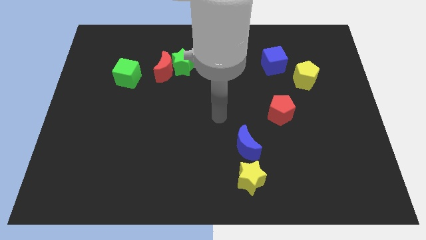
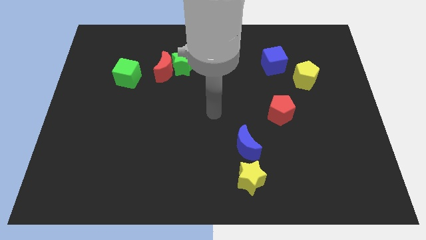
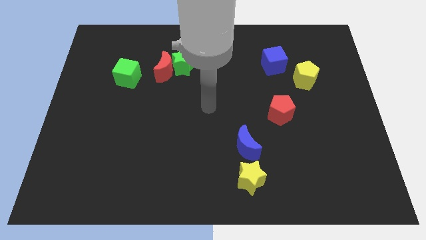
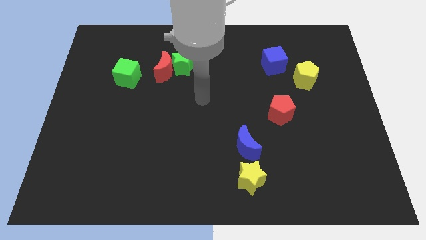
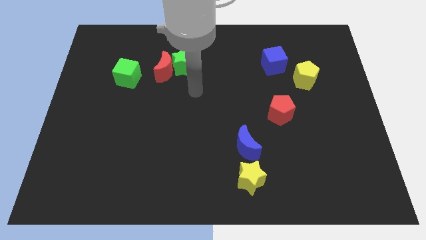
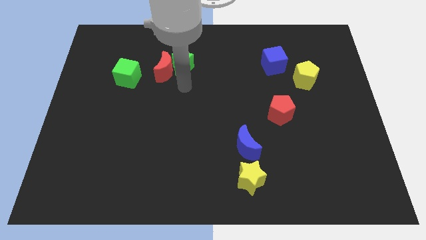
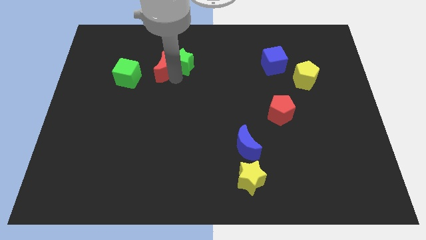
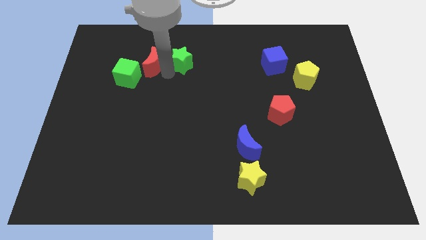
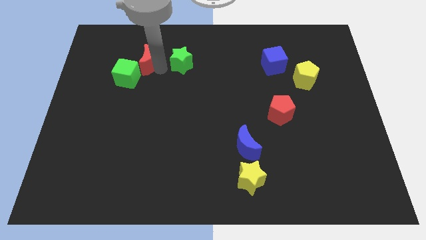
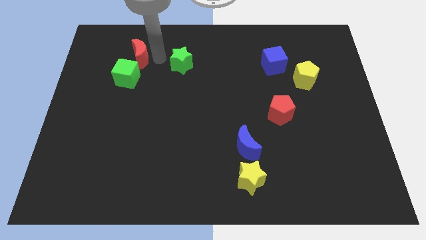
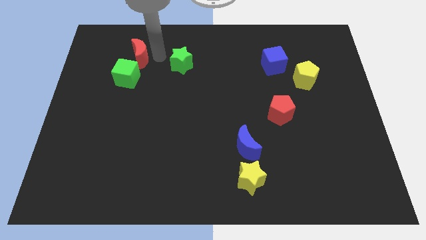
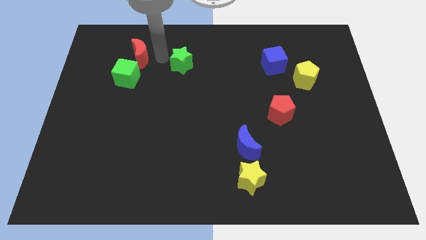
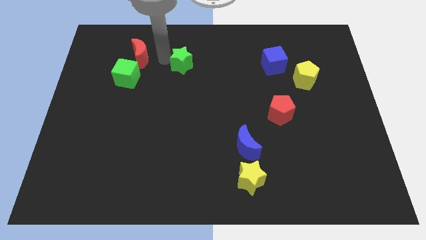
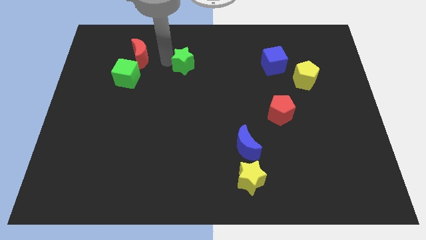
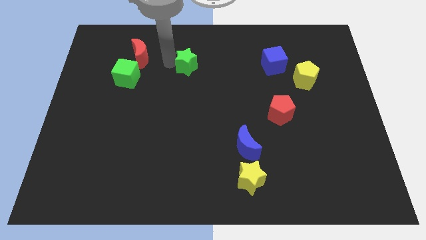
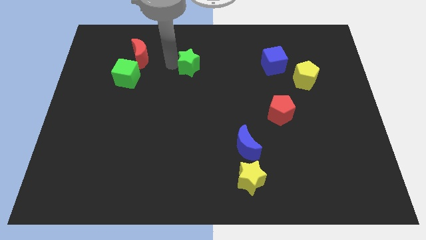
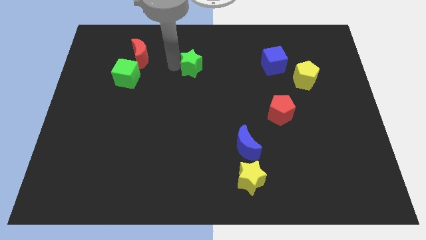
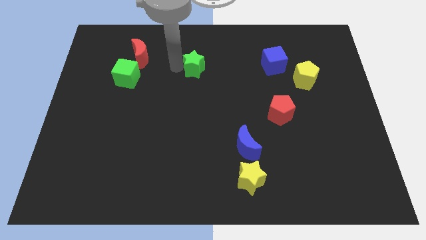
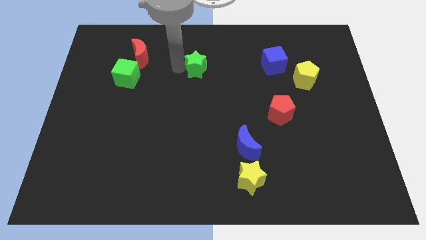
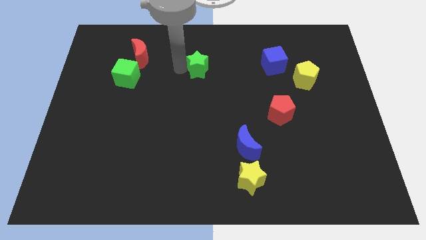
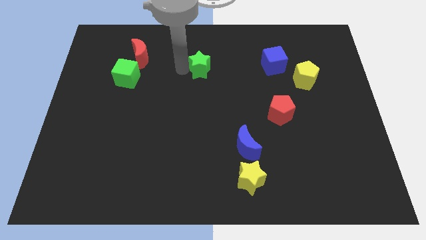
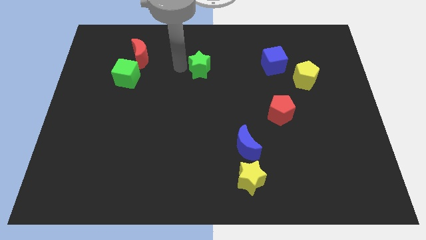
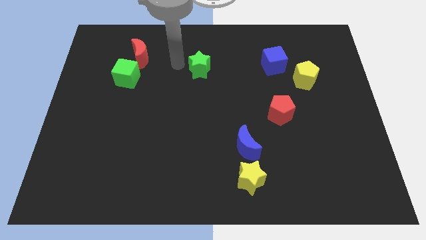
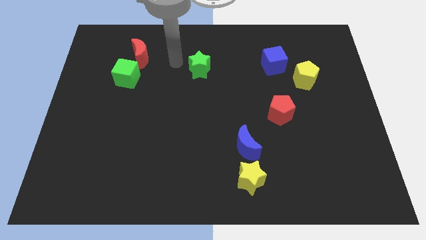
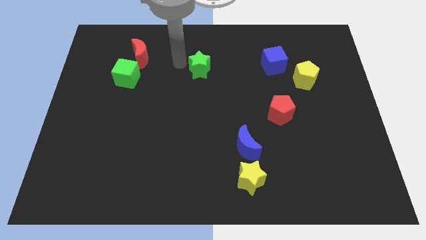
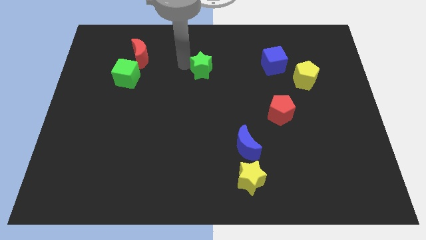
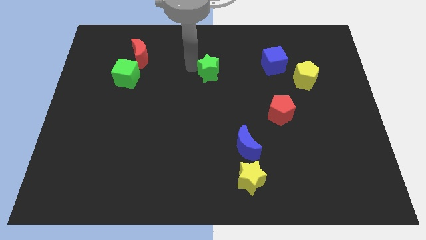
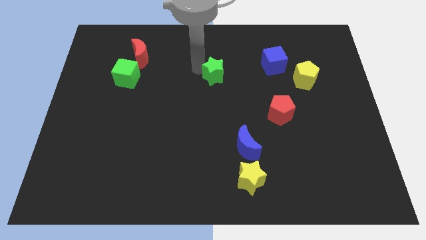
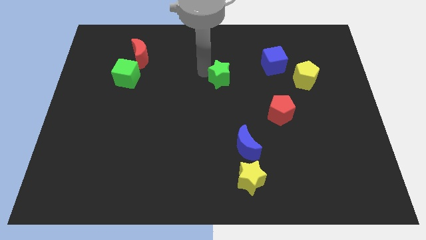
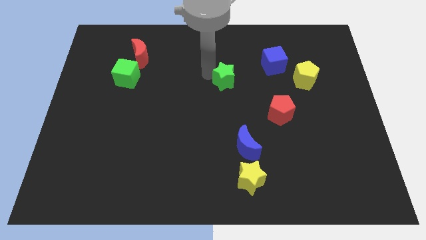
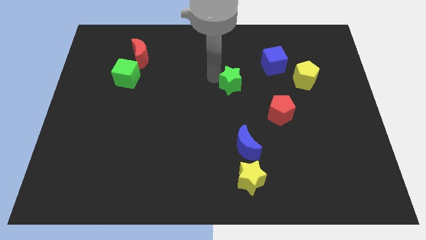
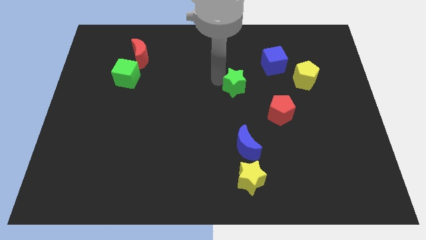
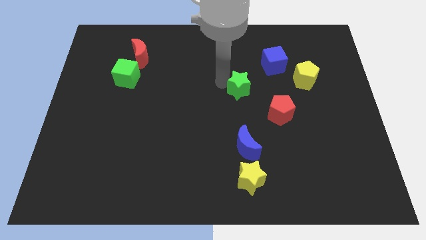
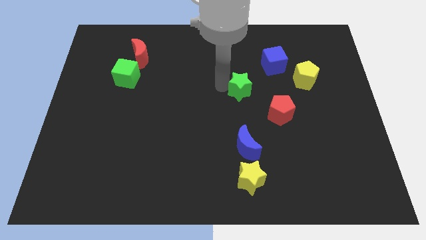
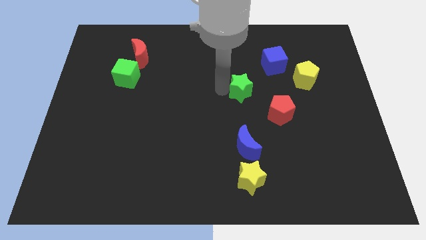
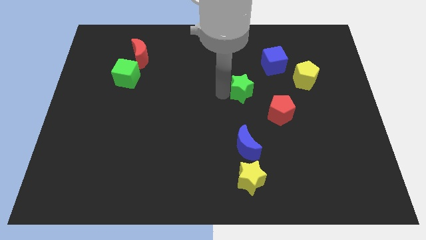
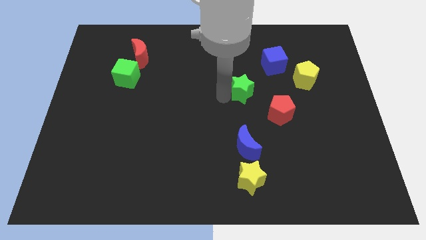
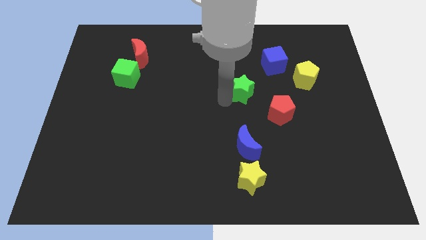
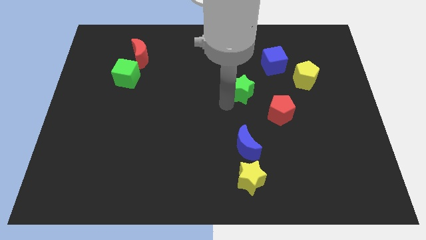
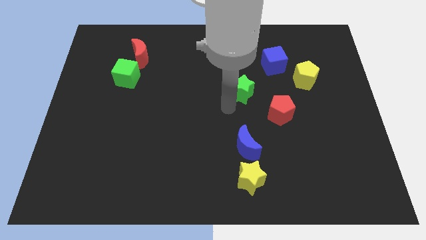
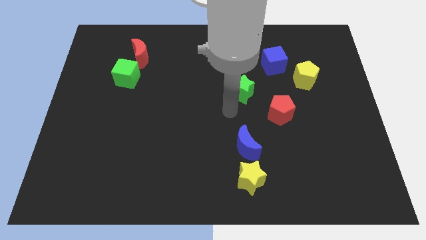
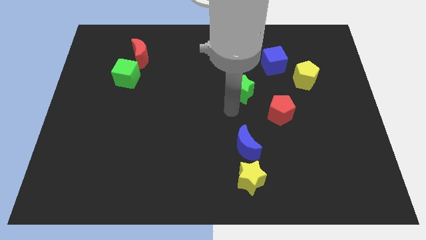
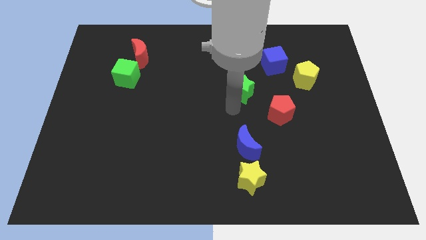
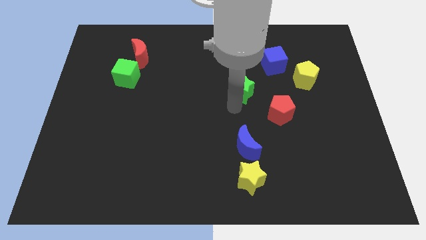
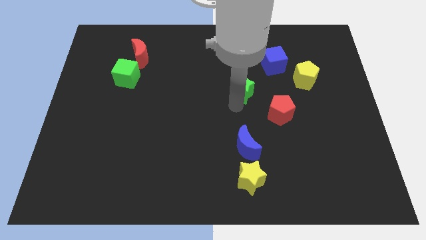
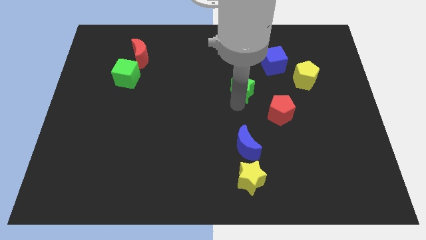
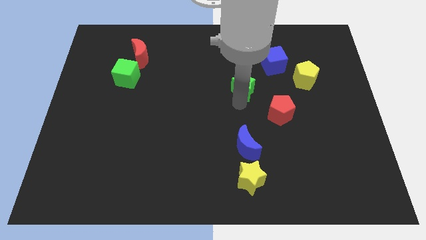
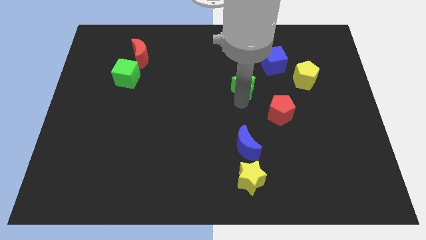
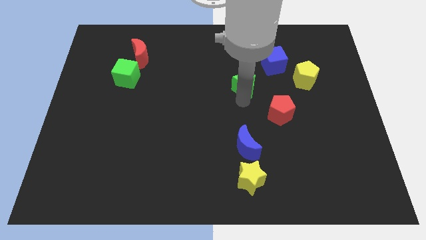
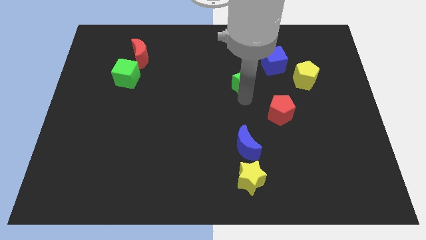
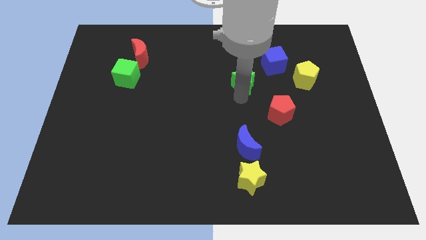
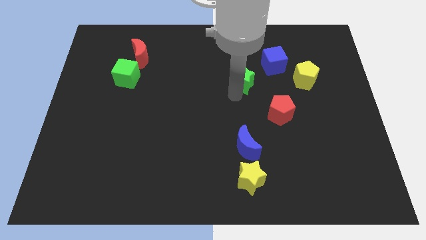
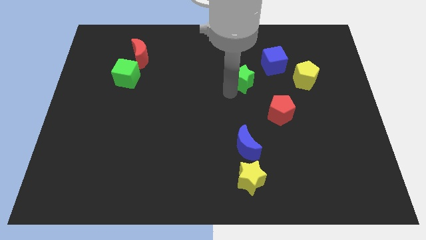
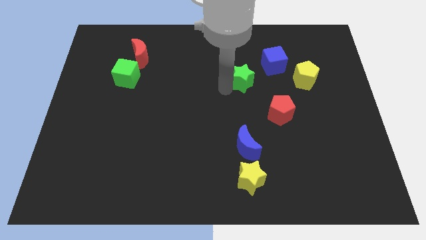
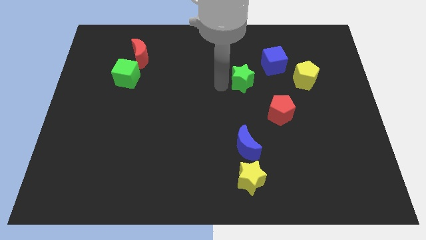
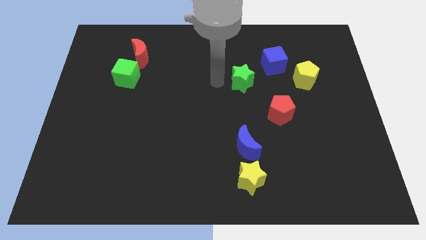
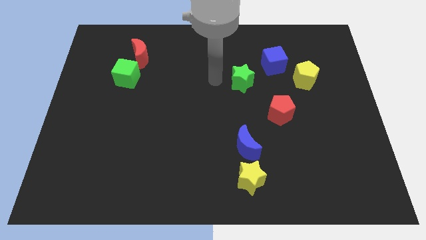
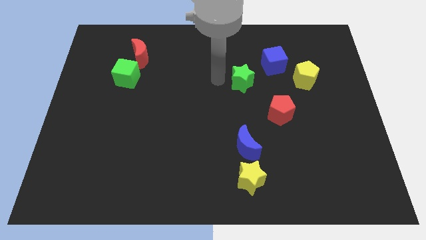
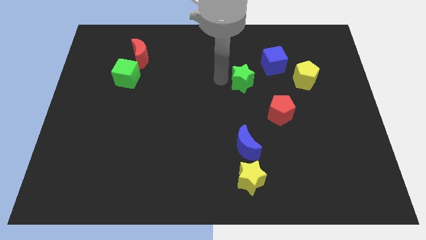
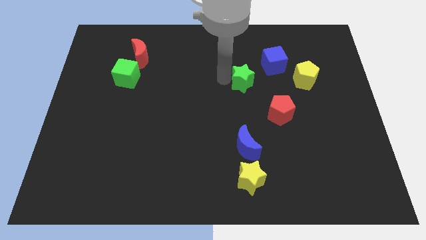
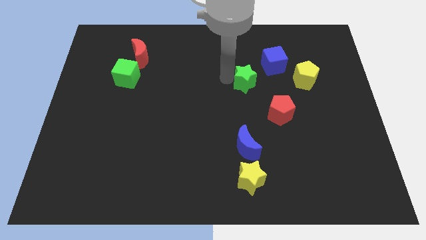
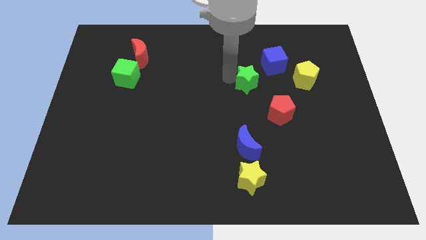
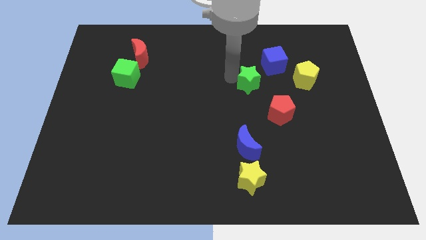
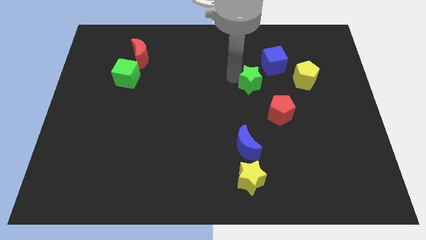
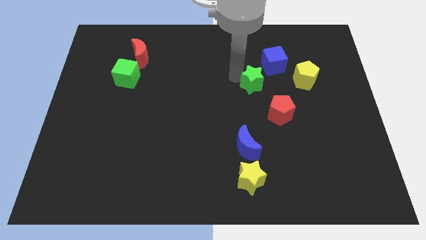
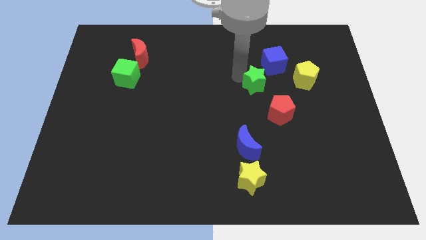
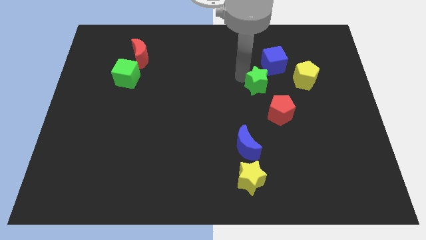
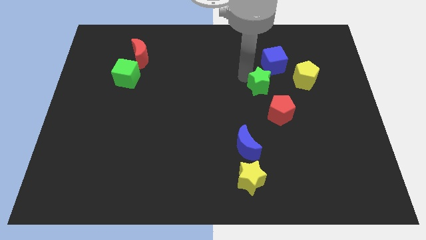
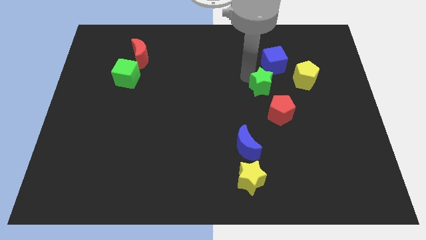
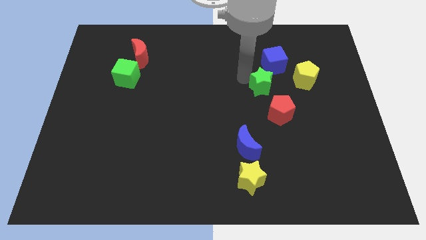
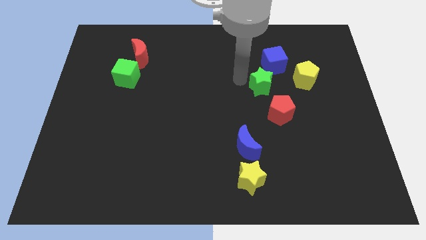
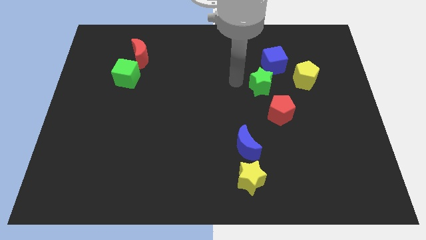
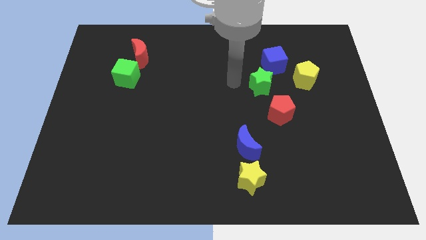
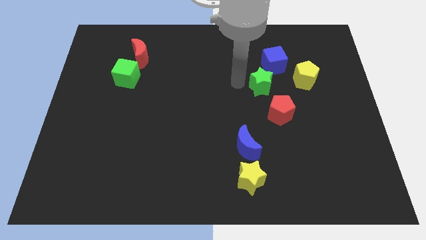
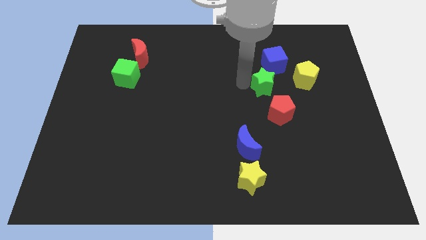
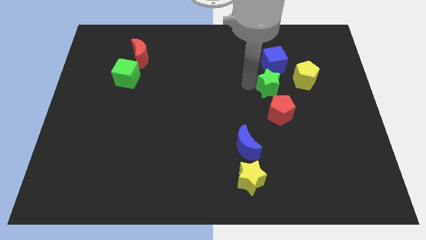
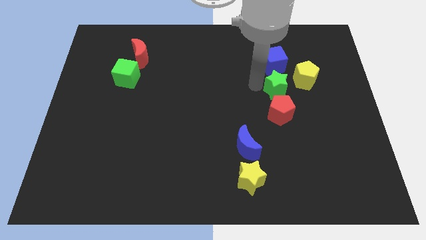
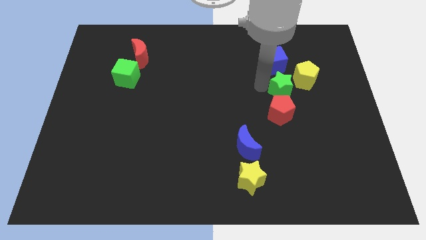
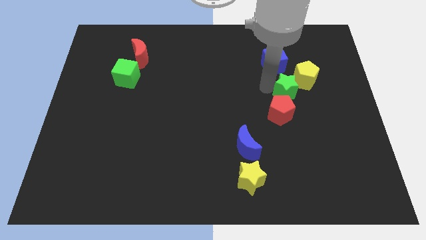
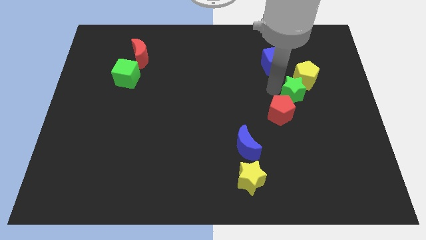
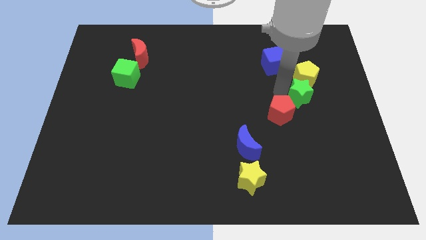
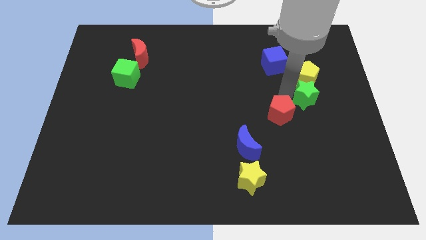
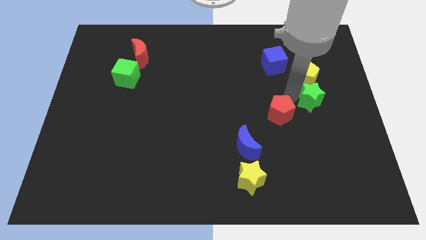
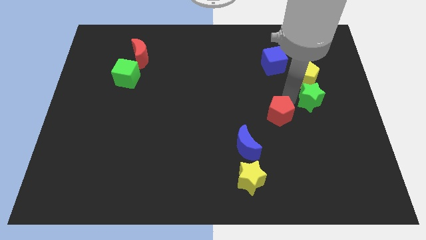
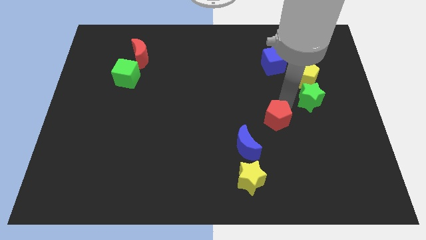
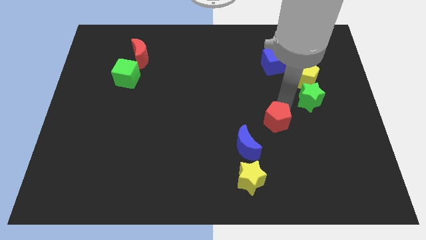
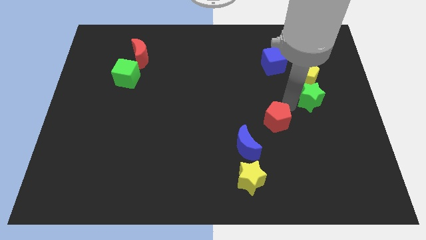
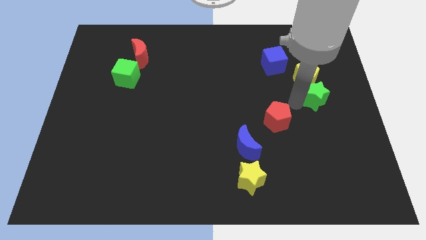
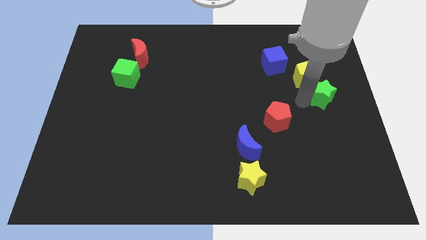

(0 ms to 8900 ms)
put the green star to the right side of the board
